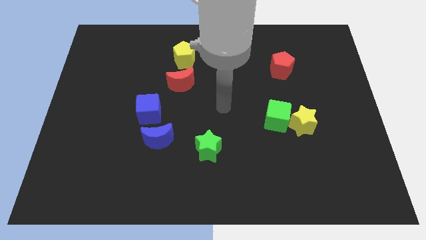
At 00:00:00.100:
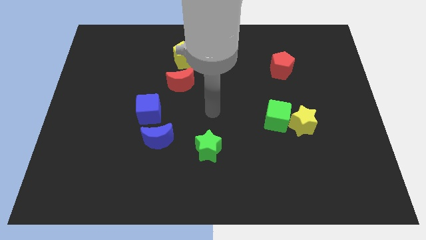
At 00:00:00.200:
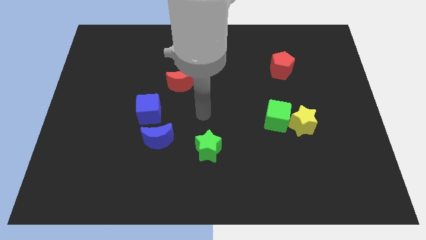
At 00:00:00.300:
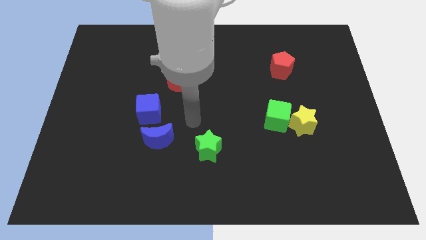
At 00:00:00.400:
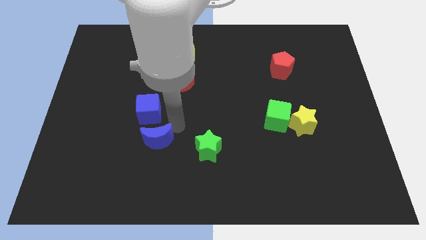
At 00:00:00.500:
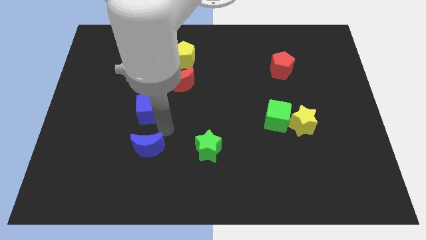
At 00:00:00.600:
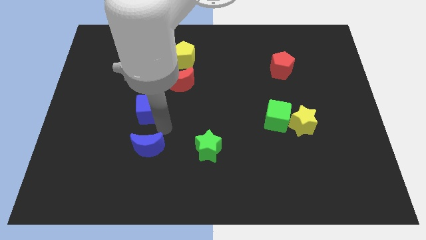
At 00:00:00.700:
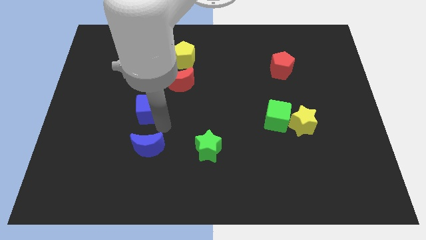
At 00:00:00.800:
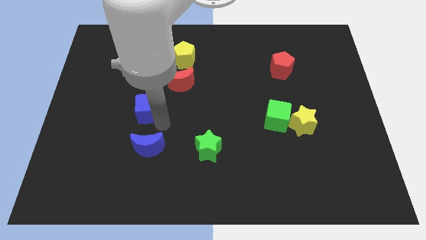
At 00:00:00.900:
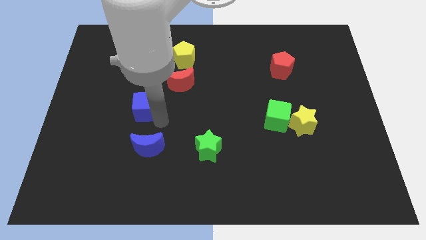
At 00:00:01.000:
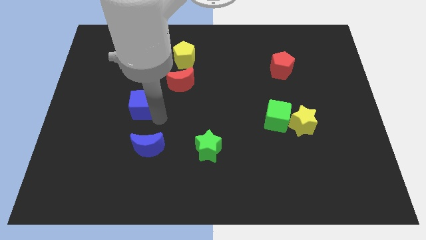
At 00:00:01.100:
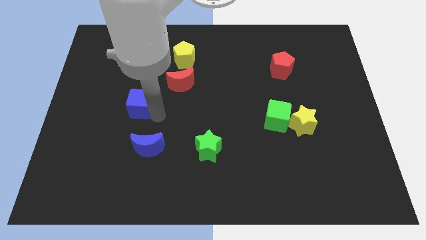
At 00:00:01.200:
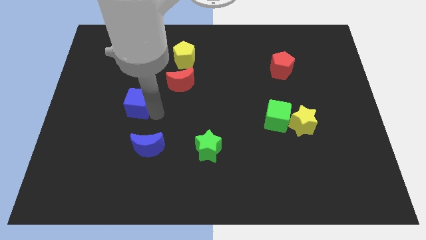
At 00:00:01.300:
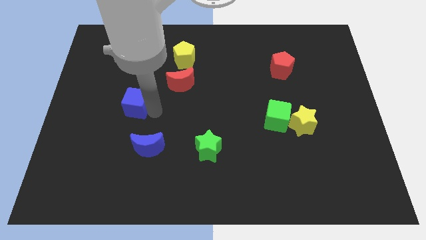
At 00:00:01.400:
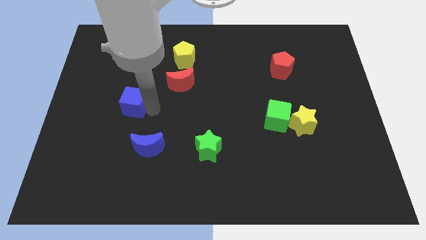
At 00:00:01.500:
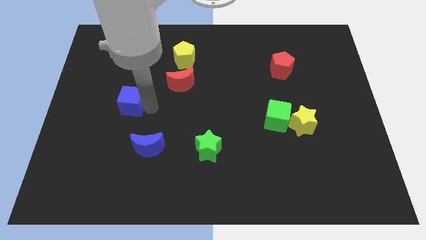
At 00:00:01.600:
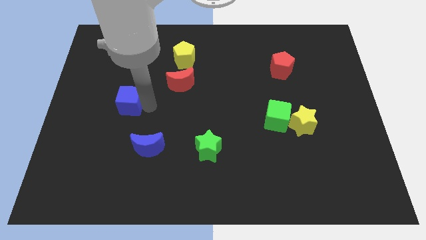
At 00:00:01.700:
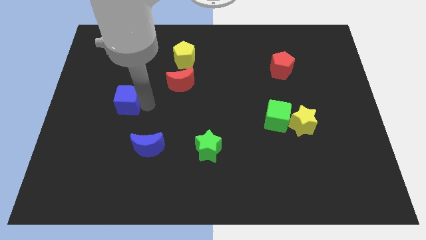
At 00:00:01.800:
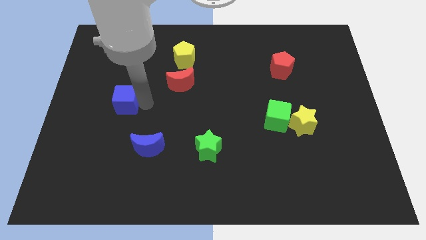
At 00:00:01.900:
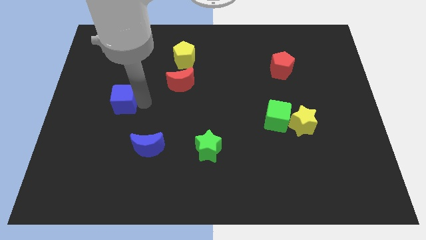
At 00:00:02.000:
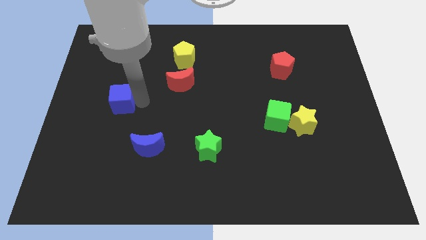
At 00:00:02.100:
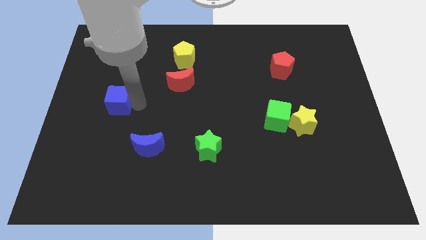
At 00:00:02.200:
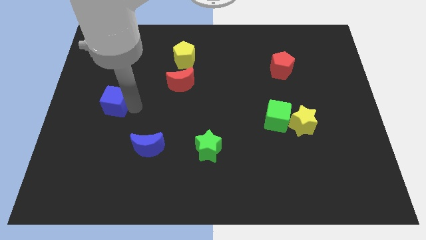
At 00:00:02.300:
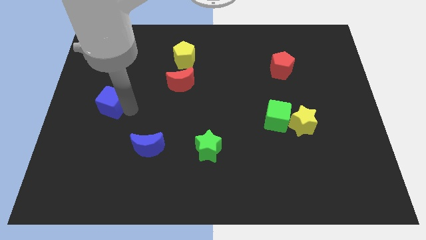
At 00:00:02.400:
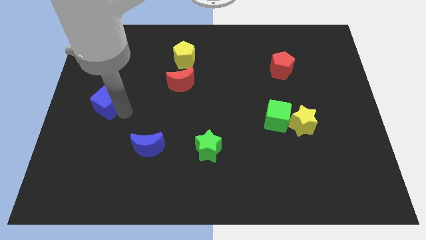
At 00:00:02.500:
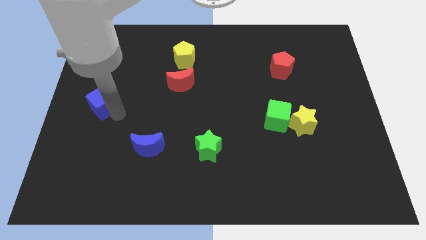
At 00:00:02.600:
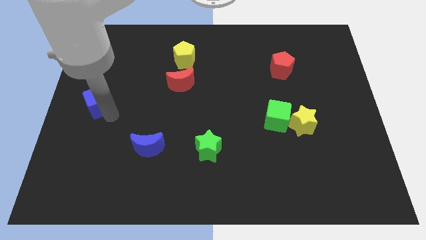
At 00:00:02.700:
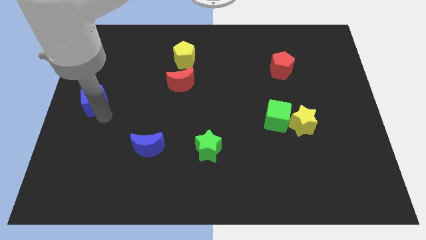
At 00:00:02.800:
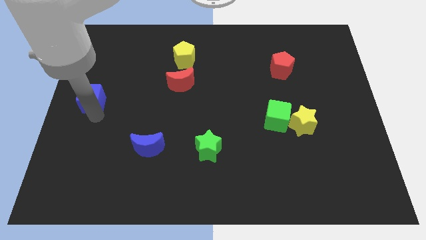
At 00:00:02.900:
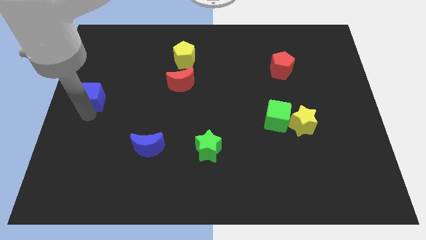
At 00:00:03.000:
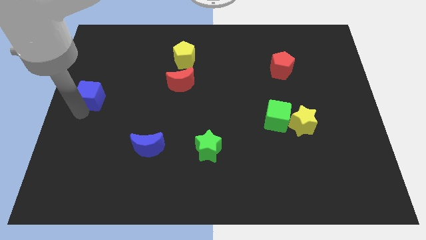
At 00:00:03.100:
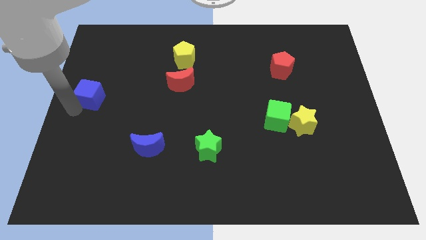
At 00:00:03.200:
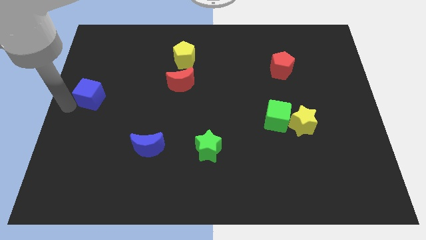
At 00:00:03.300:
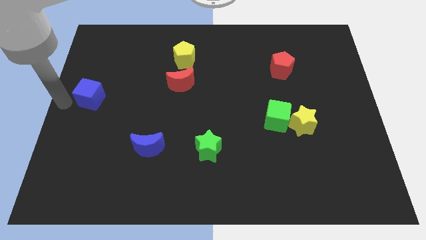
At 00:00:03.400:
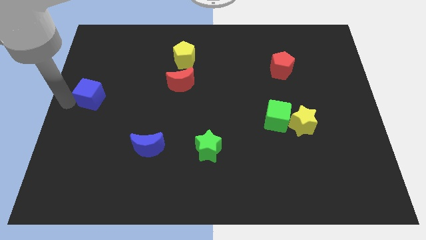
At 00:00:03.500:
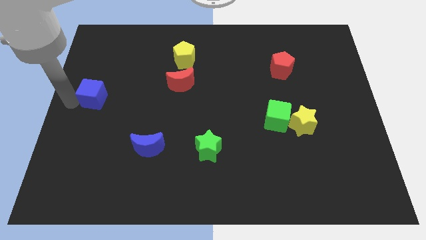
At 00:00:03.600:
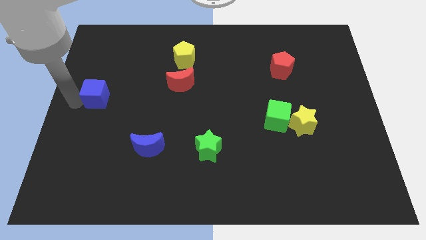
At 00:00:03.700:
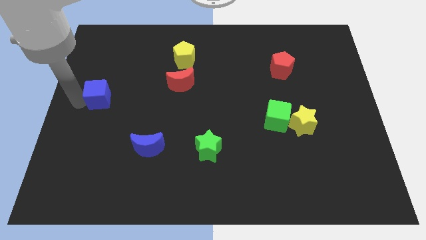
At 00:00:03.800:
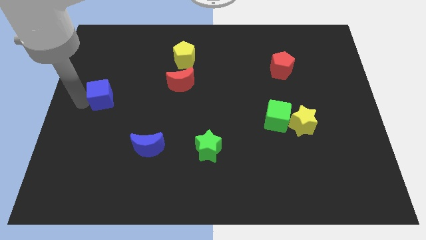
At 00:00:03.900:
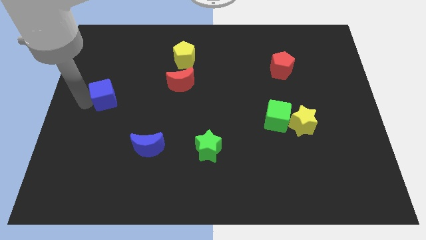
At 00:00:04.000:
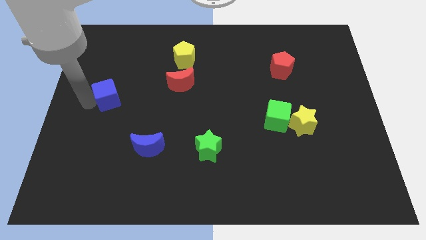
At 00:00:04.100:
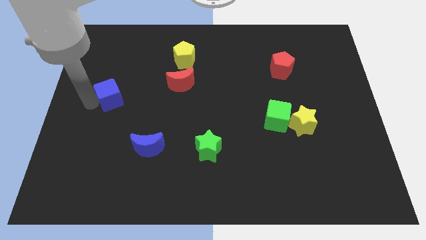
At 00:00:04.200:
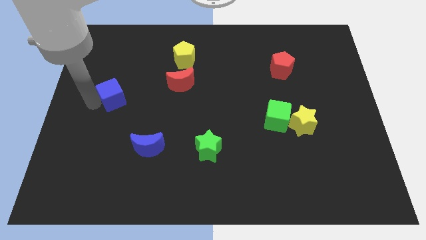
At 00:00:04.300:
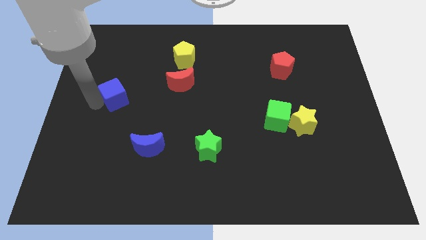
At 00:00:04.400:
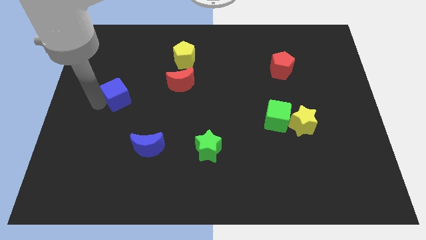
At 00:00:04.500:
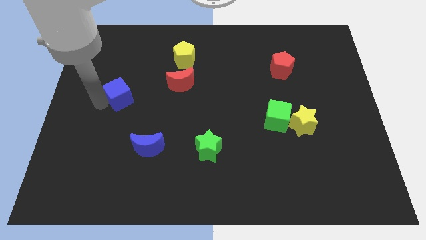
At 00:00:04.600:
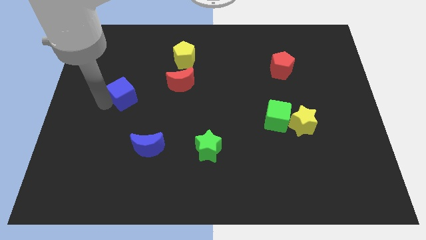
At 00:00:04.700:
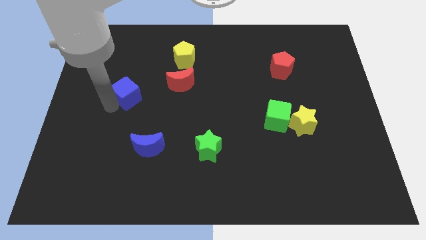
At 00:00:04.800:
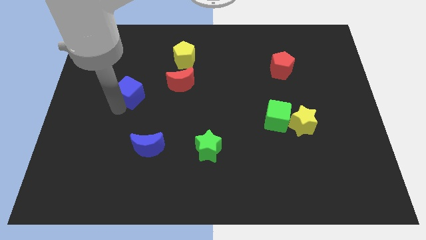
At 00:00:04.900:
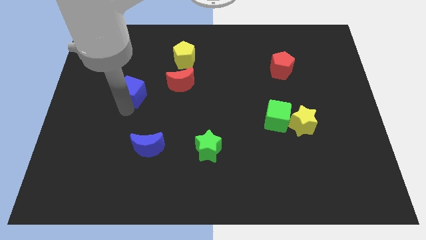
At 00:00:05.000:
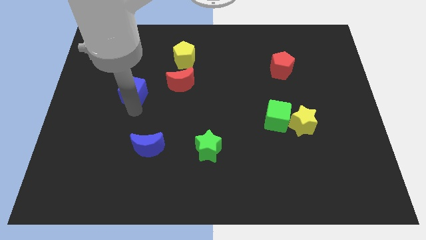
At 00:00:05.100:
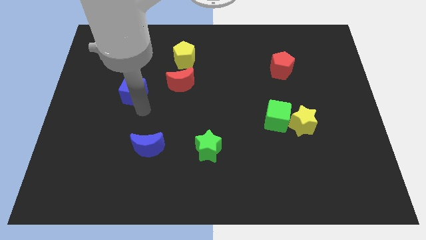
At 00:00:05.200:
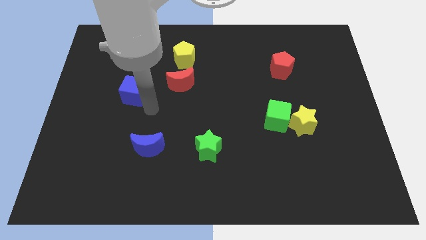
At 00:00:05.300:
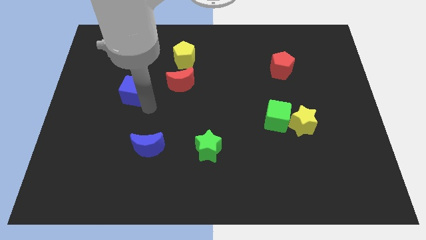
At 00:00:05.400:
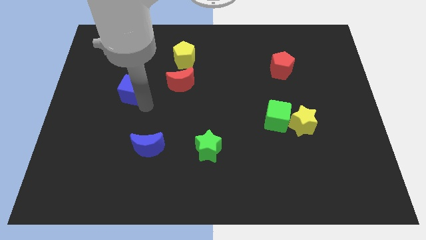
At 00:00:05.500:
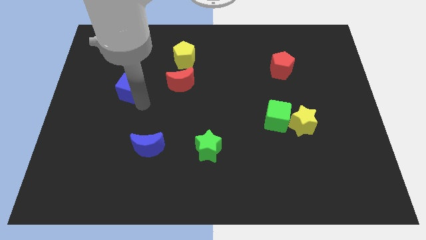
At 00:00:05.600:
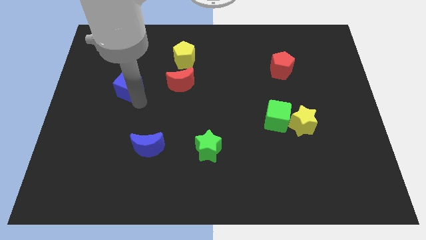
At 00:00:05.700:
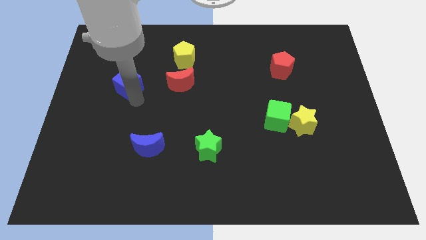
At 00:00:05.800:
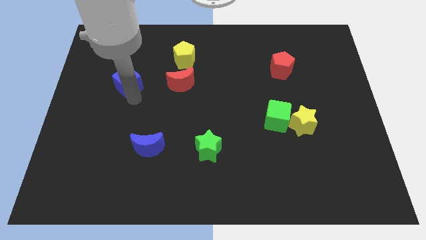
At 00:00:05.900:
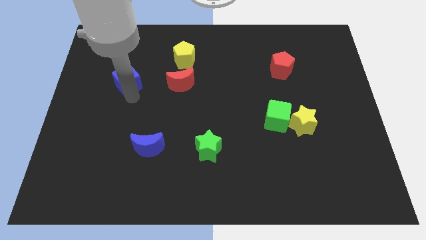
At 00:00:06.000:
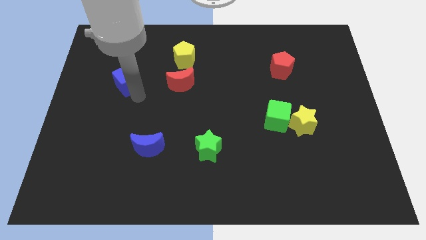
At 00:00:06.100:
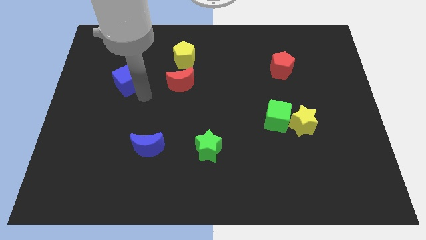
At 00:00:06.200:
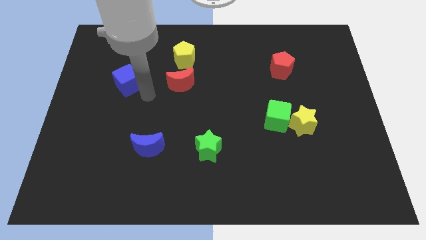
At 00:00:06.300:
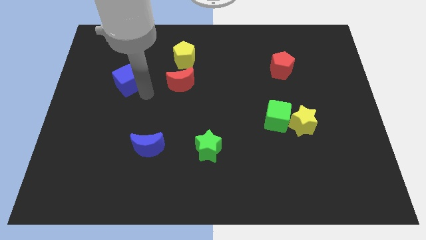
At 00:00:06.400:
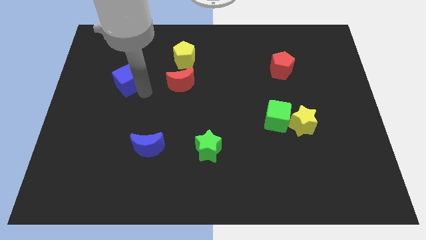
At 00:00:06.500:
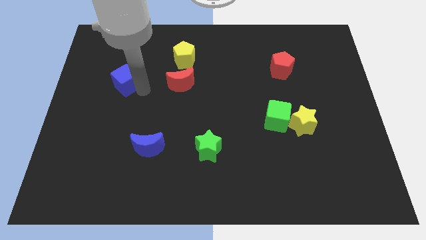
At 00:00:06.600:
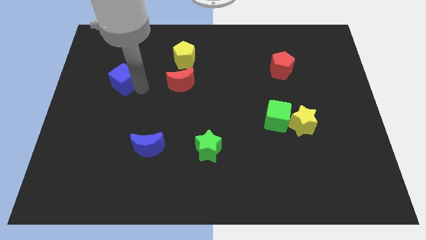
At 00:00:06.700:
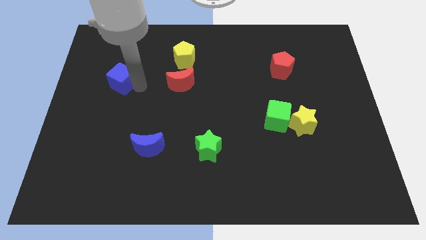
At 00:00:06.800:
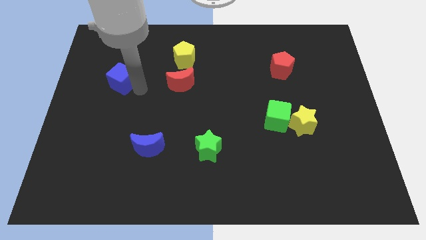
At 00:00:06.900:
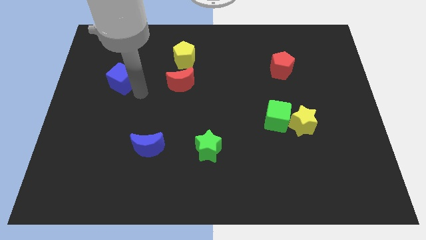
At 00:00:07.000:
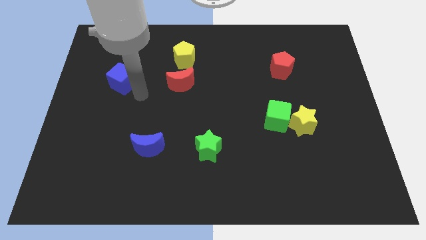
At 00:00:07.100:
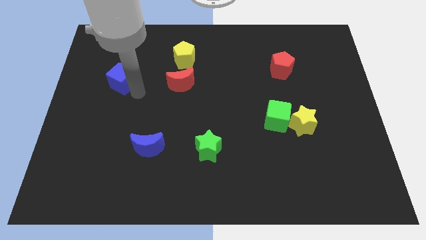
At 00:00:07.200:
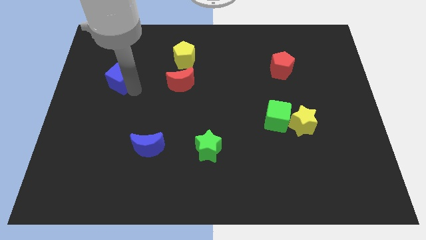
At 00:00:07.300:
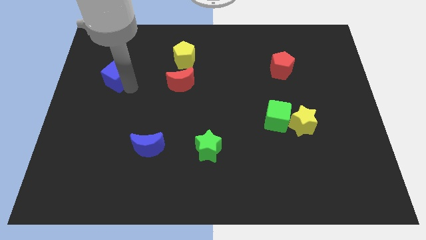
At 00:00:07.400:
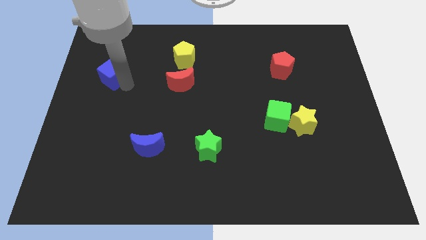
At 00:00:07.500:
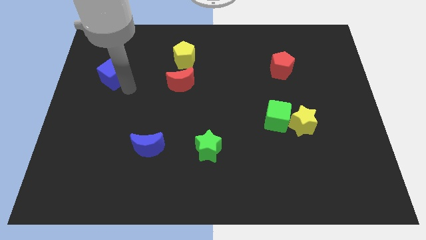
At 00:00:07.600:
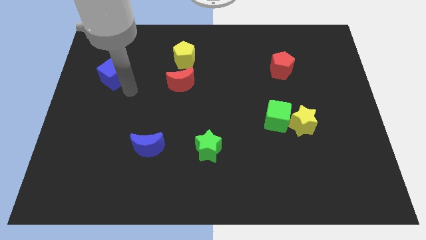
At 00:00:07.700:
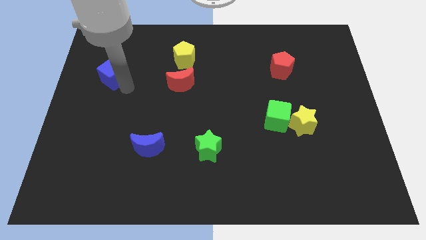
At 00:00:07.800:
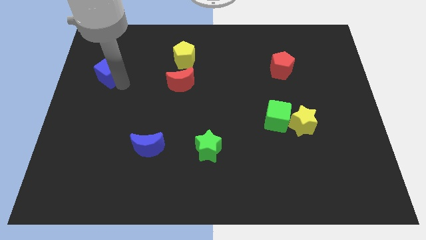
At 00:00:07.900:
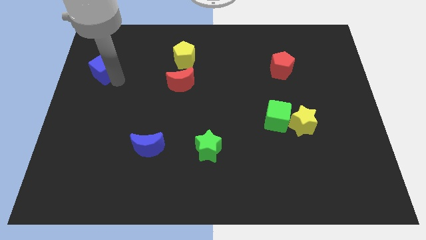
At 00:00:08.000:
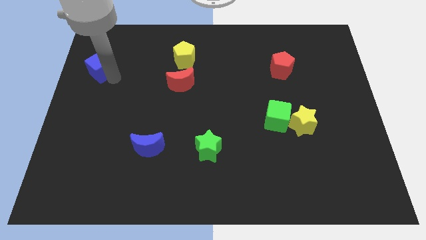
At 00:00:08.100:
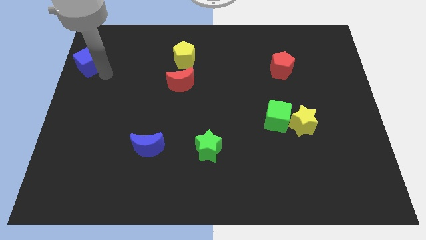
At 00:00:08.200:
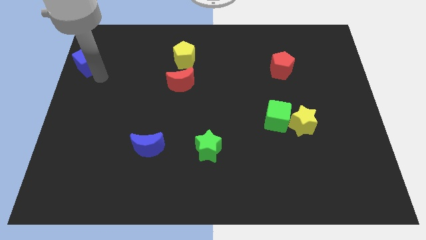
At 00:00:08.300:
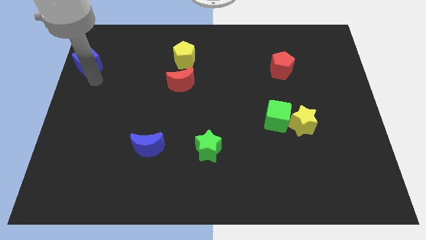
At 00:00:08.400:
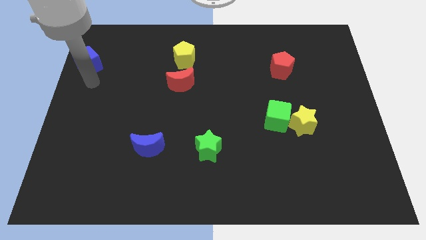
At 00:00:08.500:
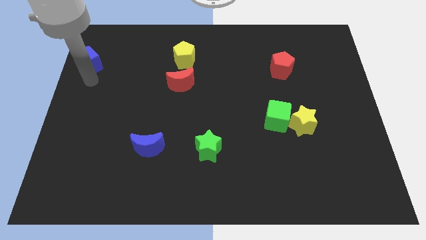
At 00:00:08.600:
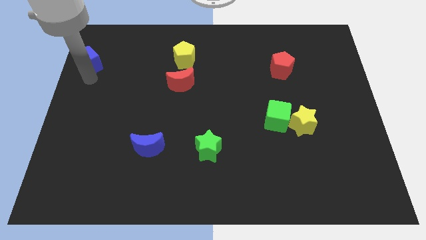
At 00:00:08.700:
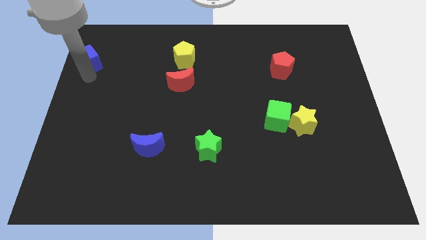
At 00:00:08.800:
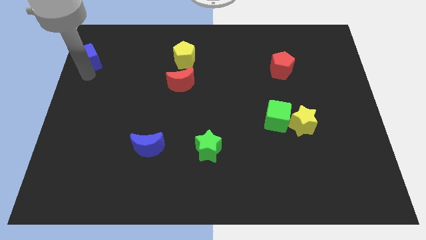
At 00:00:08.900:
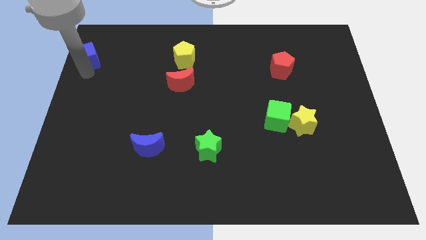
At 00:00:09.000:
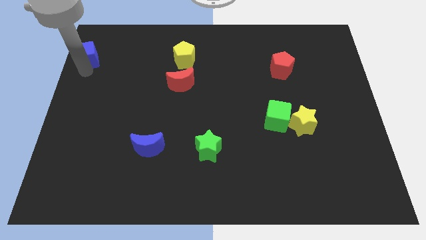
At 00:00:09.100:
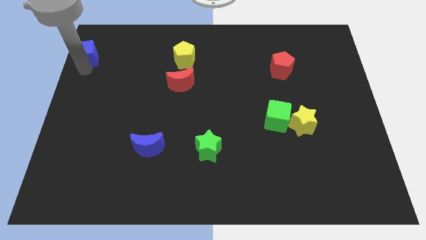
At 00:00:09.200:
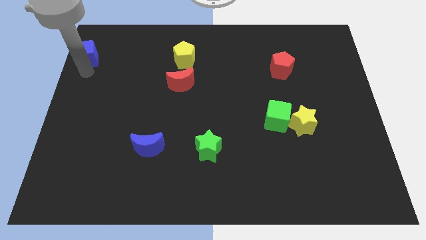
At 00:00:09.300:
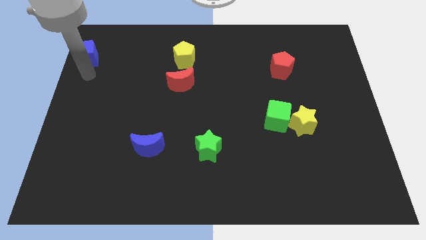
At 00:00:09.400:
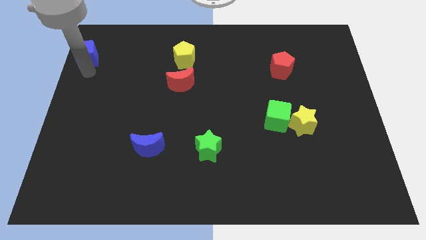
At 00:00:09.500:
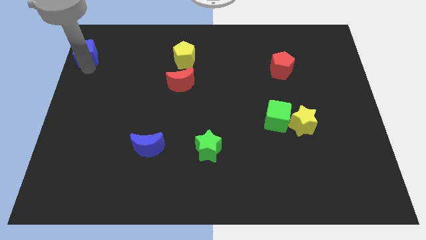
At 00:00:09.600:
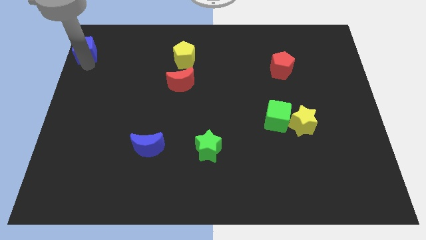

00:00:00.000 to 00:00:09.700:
push the blue cube to the upper left corner
